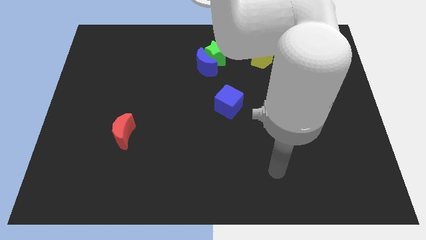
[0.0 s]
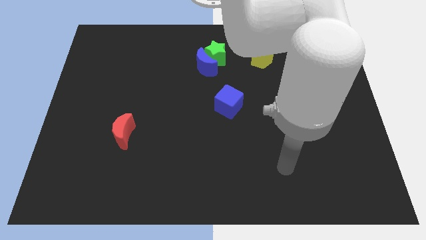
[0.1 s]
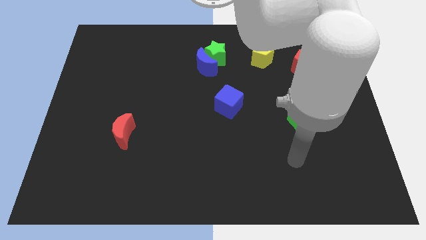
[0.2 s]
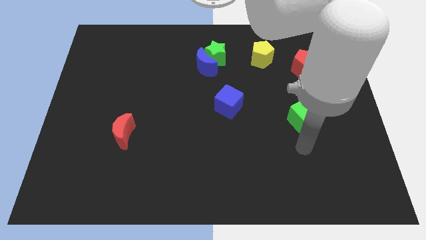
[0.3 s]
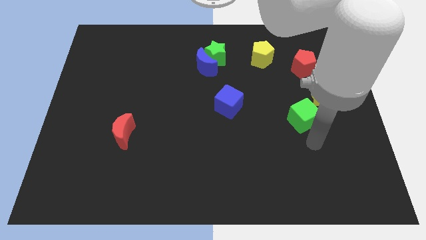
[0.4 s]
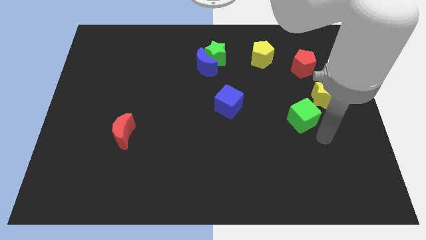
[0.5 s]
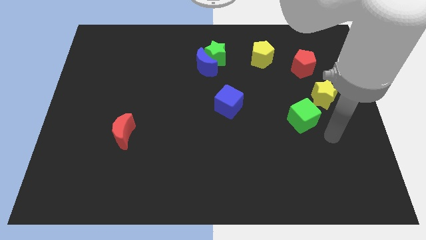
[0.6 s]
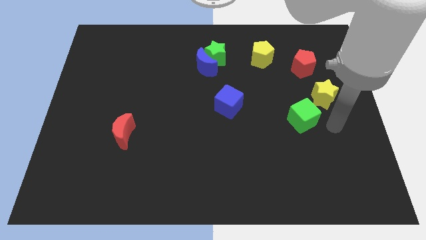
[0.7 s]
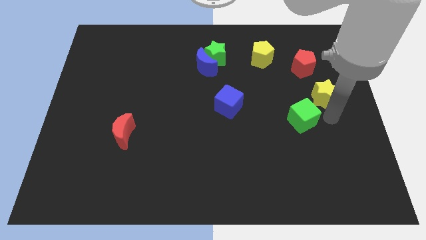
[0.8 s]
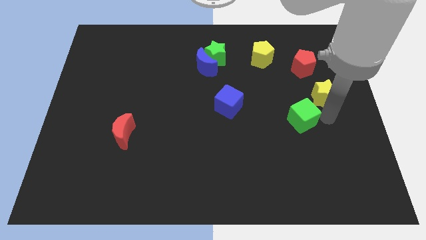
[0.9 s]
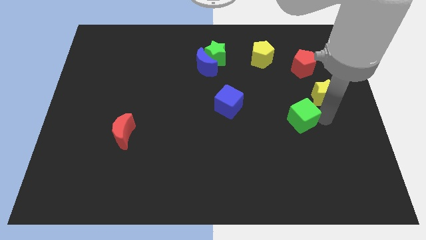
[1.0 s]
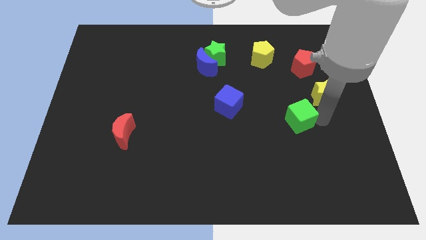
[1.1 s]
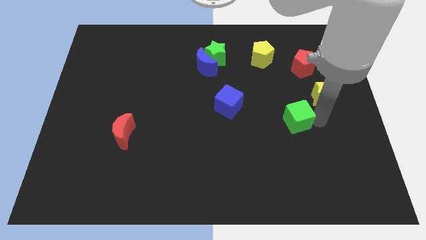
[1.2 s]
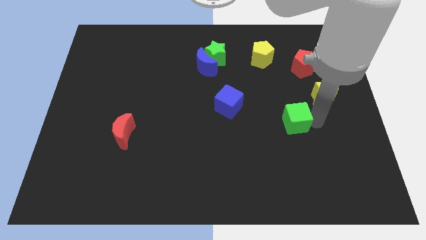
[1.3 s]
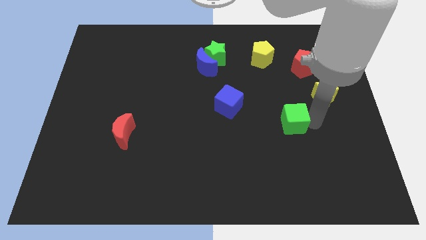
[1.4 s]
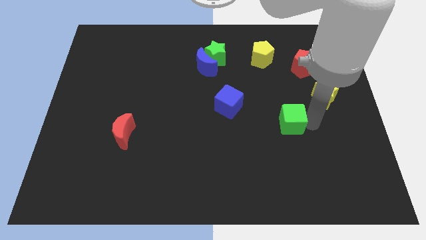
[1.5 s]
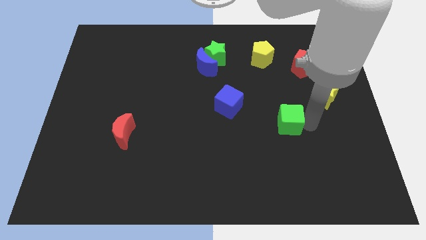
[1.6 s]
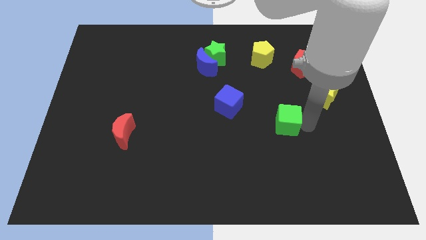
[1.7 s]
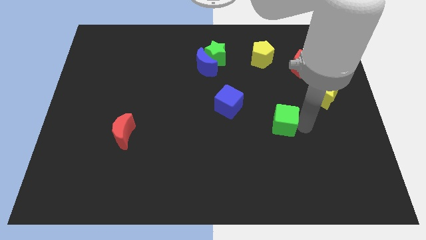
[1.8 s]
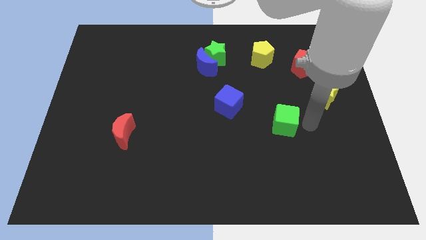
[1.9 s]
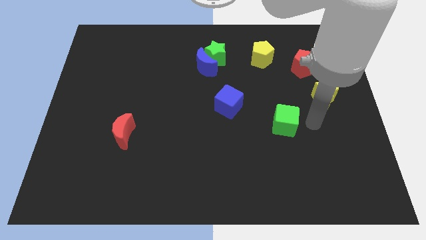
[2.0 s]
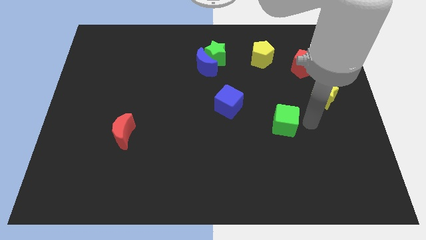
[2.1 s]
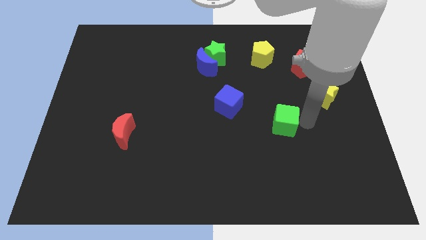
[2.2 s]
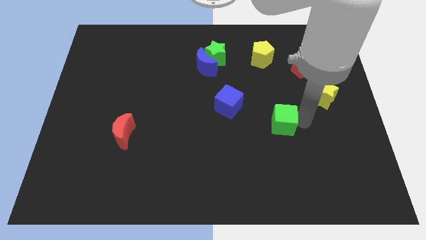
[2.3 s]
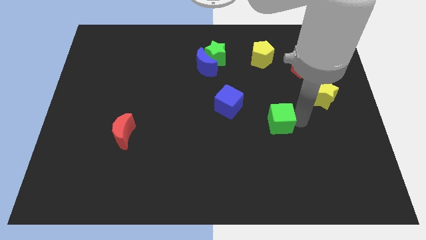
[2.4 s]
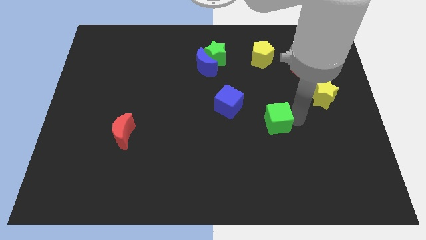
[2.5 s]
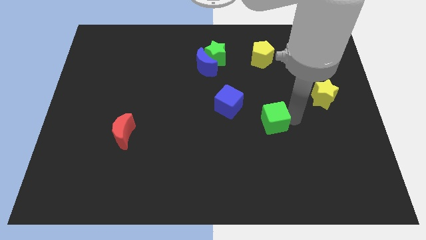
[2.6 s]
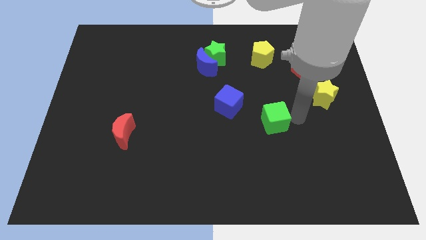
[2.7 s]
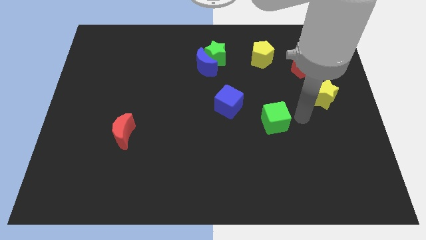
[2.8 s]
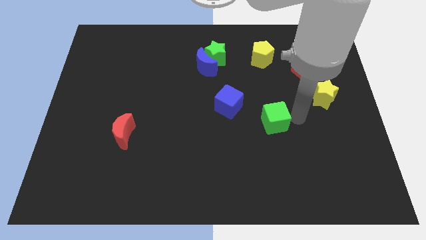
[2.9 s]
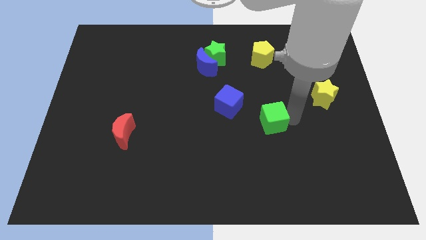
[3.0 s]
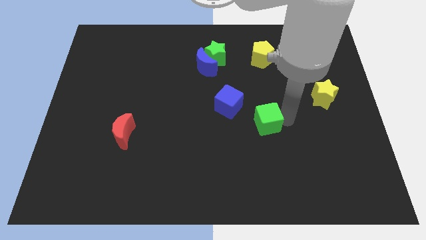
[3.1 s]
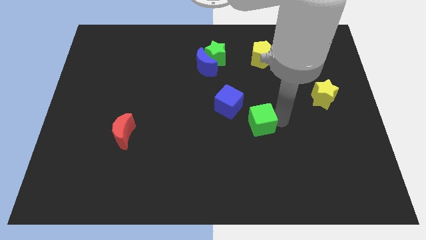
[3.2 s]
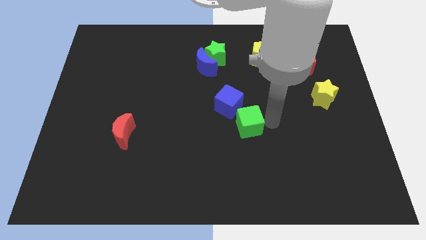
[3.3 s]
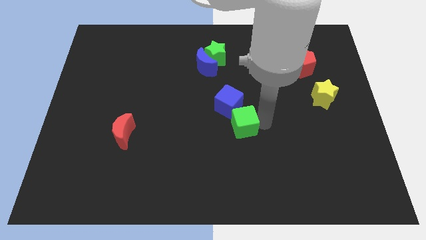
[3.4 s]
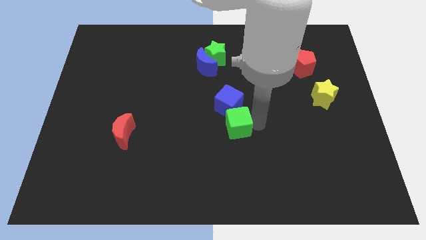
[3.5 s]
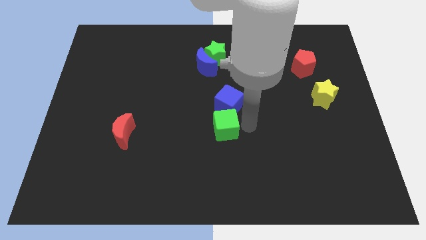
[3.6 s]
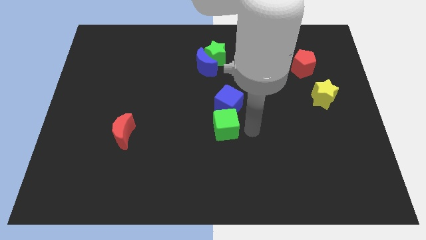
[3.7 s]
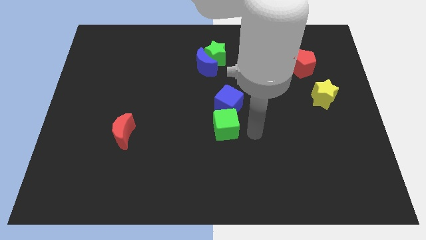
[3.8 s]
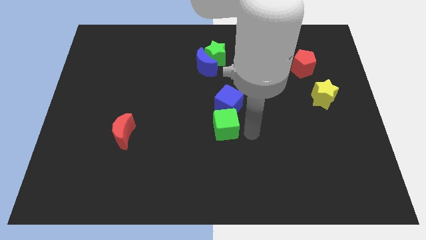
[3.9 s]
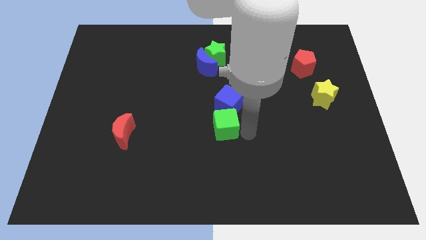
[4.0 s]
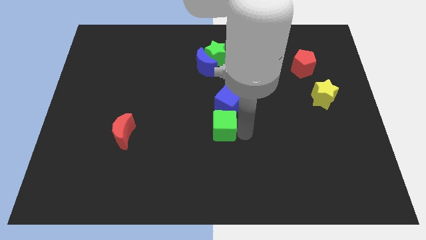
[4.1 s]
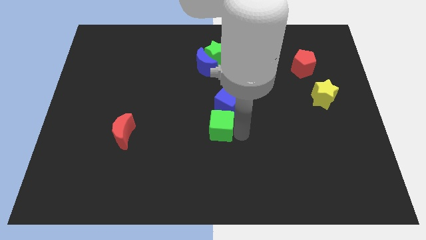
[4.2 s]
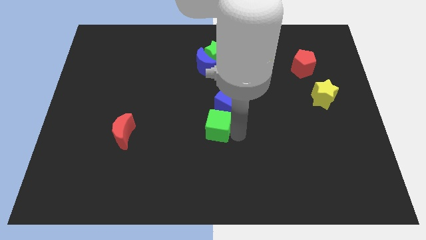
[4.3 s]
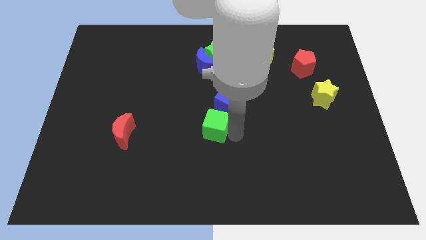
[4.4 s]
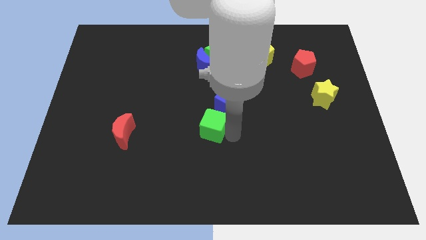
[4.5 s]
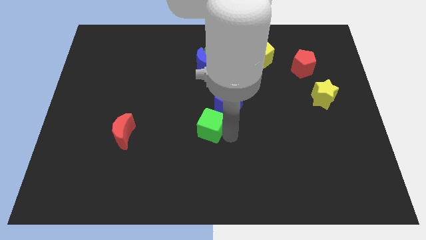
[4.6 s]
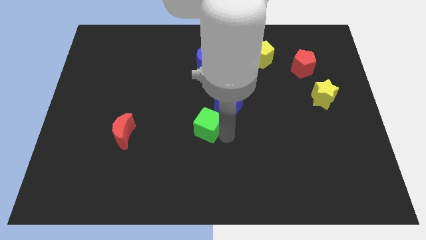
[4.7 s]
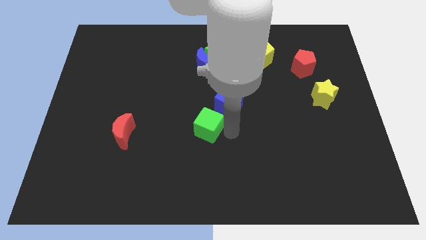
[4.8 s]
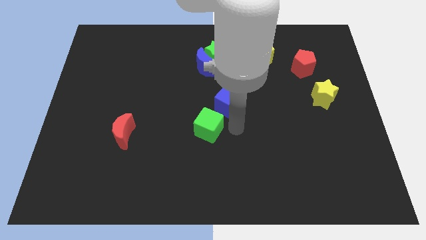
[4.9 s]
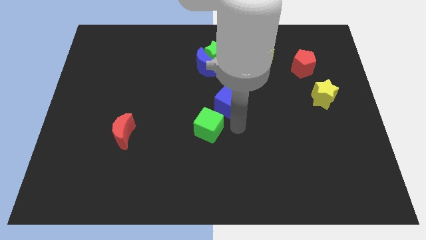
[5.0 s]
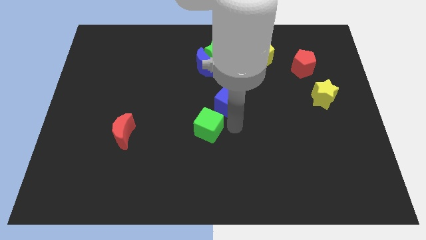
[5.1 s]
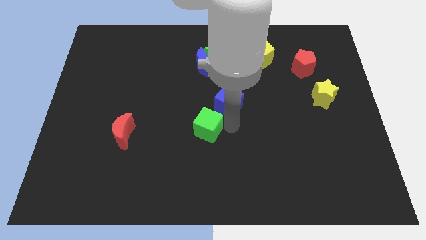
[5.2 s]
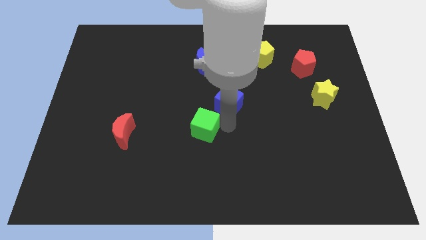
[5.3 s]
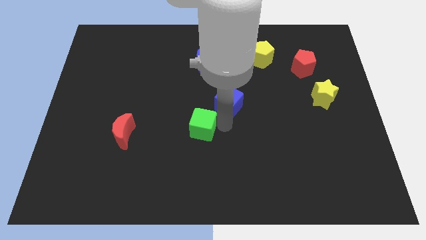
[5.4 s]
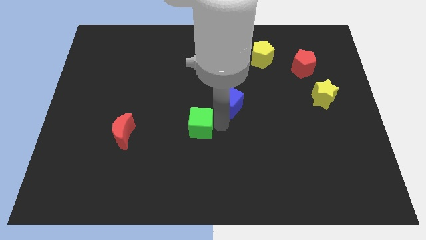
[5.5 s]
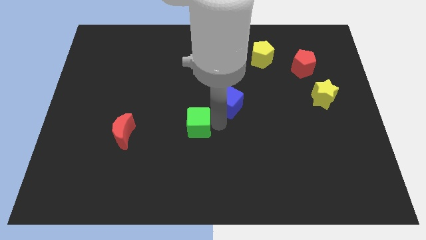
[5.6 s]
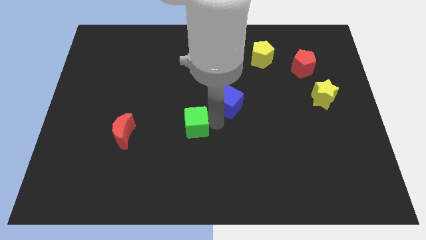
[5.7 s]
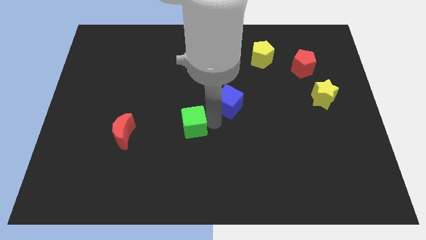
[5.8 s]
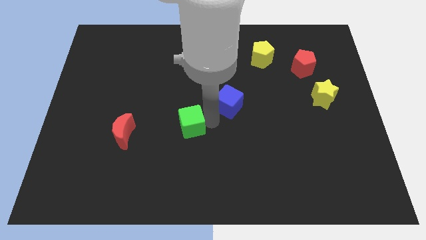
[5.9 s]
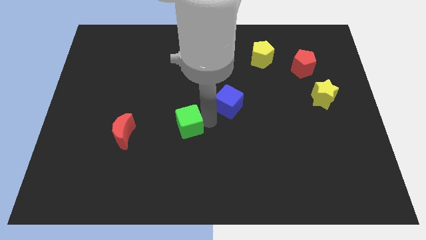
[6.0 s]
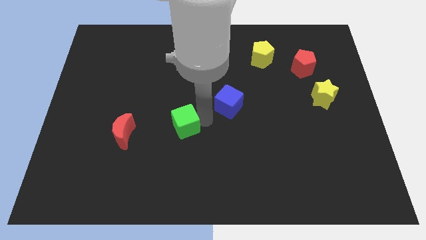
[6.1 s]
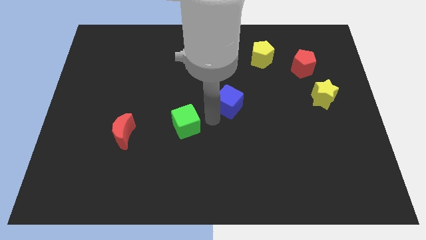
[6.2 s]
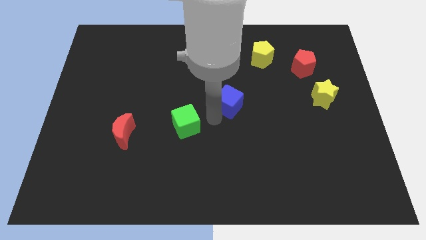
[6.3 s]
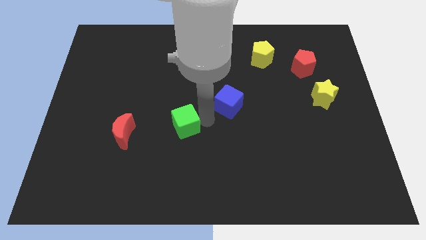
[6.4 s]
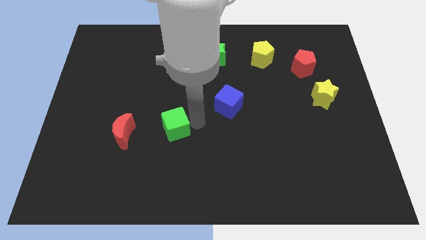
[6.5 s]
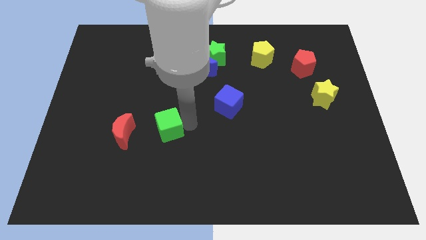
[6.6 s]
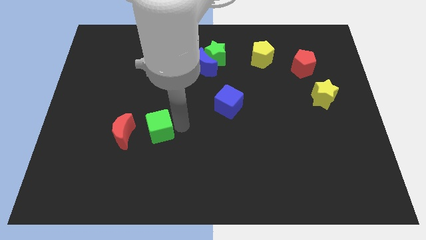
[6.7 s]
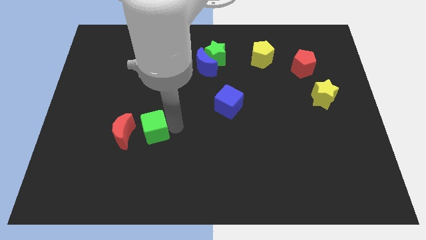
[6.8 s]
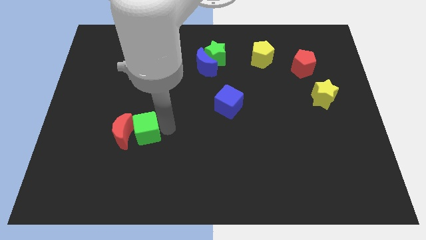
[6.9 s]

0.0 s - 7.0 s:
put the green cube next to the red moon

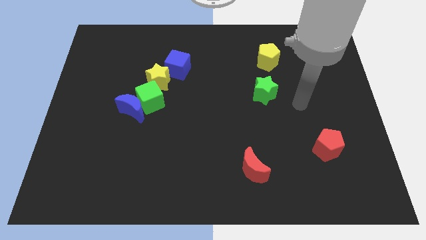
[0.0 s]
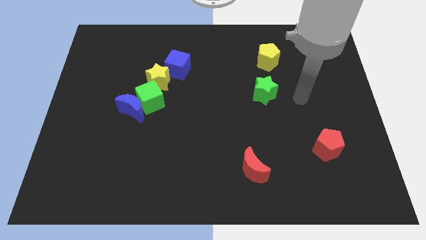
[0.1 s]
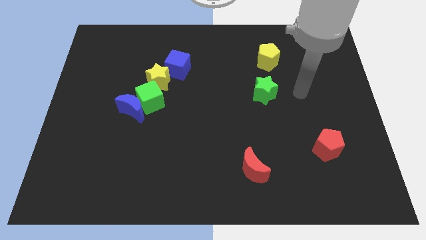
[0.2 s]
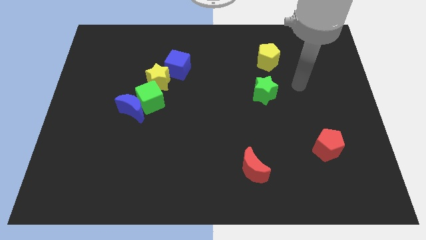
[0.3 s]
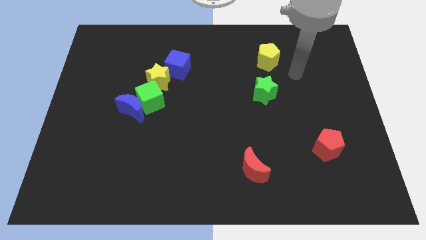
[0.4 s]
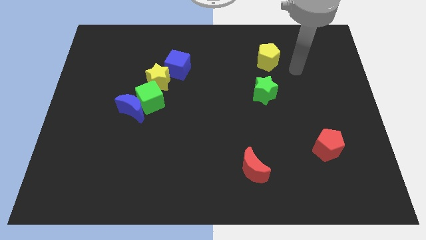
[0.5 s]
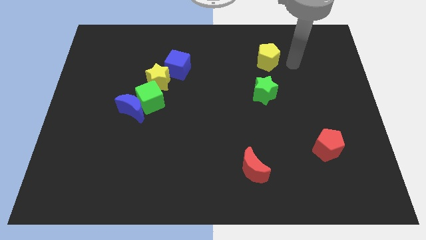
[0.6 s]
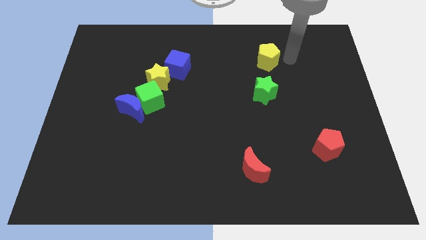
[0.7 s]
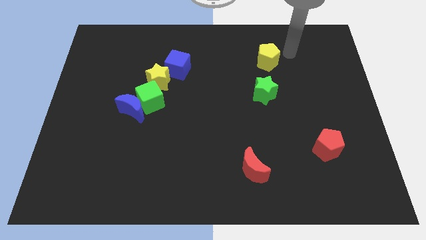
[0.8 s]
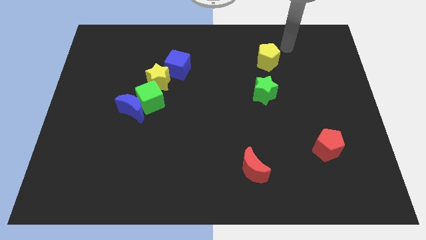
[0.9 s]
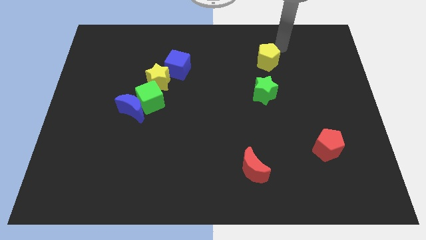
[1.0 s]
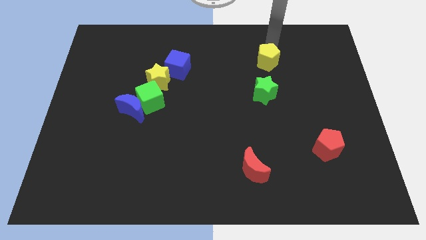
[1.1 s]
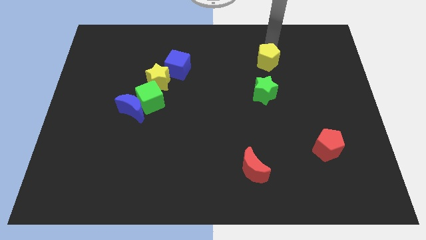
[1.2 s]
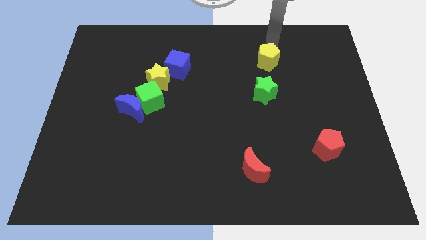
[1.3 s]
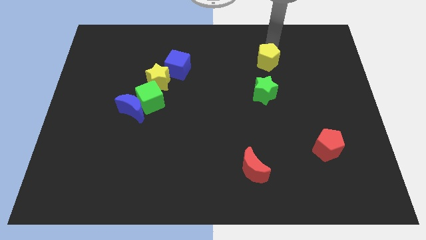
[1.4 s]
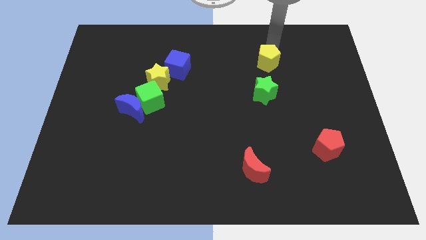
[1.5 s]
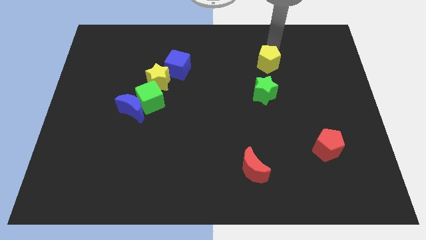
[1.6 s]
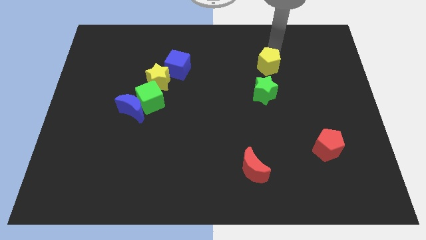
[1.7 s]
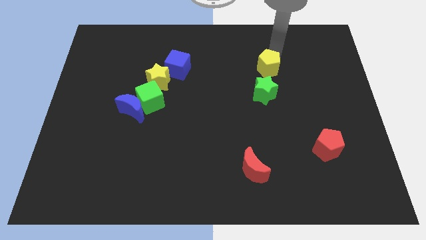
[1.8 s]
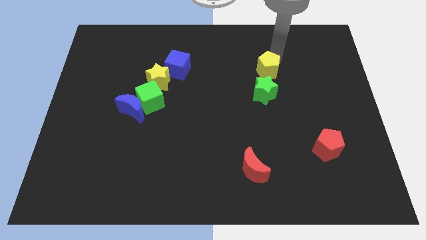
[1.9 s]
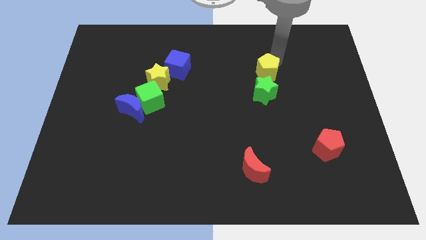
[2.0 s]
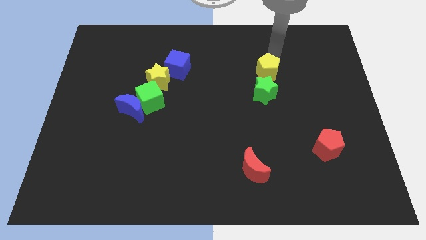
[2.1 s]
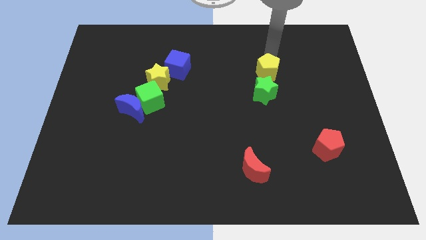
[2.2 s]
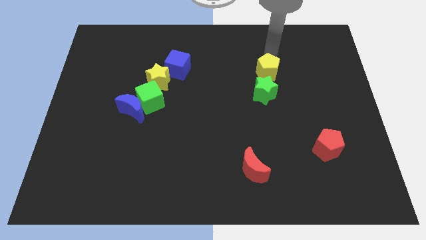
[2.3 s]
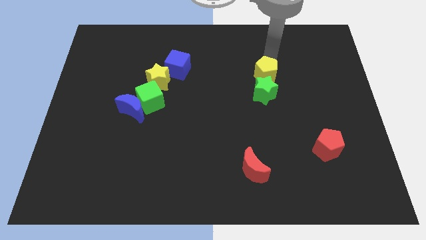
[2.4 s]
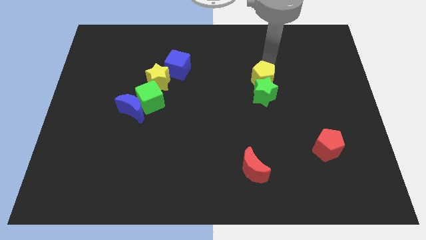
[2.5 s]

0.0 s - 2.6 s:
put the yellow pentagon next to the green star
